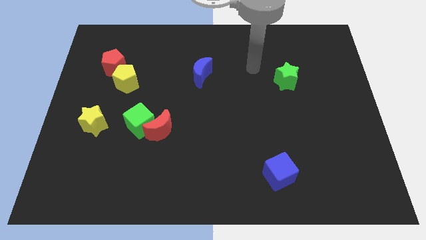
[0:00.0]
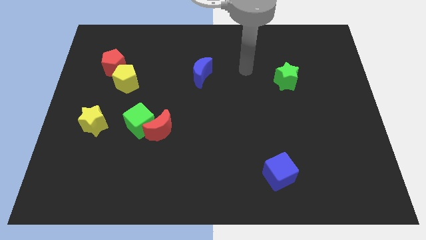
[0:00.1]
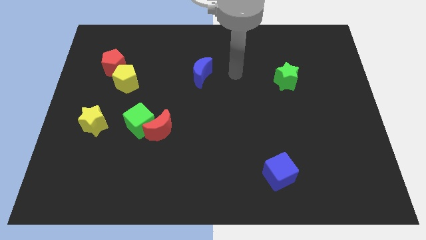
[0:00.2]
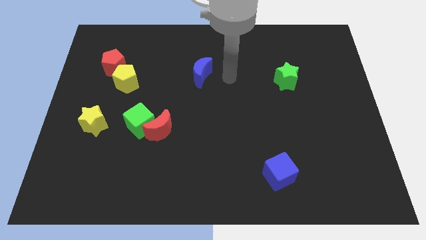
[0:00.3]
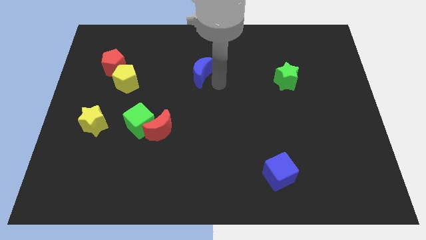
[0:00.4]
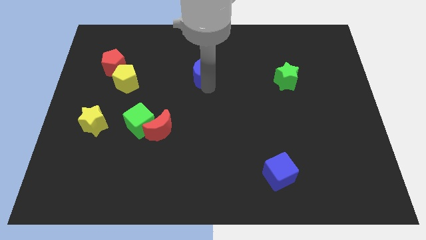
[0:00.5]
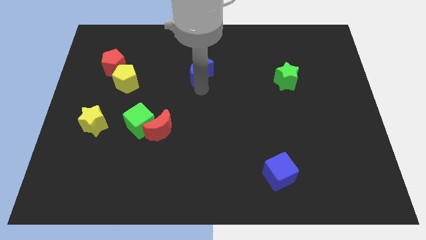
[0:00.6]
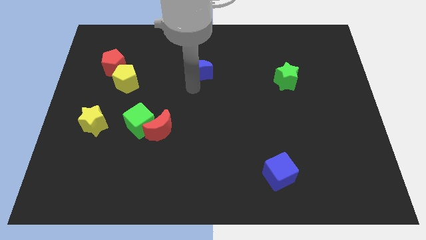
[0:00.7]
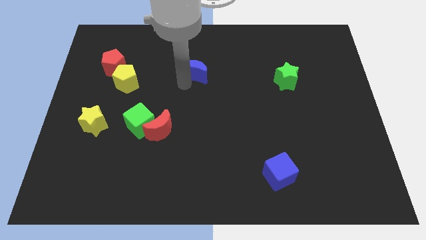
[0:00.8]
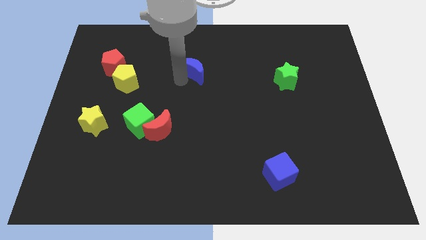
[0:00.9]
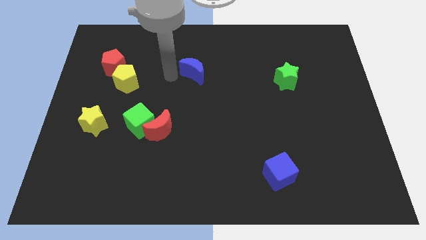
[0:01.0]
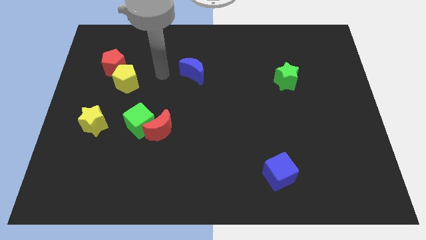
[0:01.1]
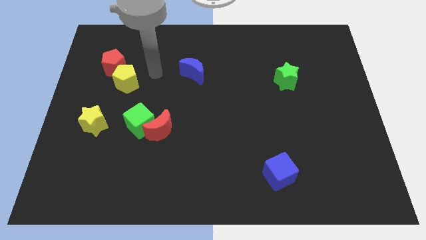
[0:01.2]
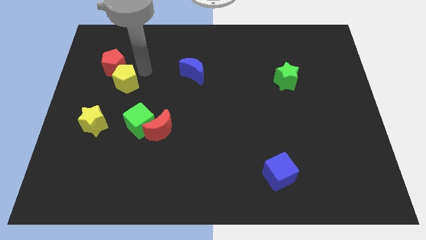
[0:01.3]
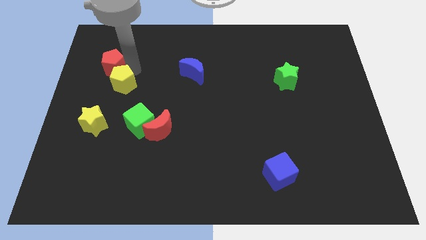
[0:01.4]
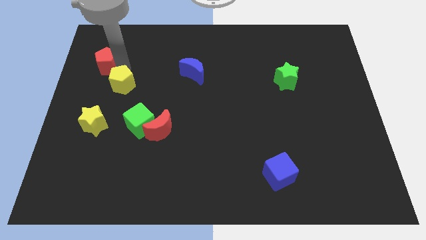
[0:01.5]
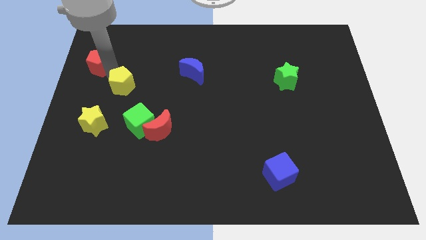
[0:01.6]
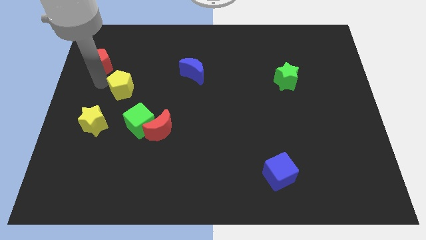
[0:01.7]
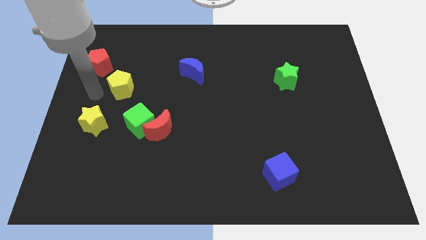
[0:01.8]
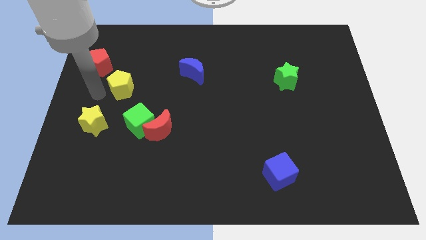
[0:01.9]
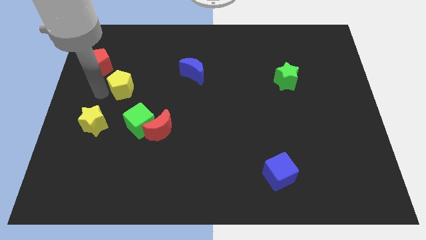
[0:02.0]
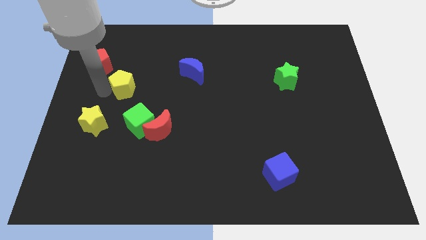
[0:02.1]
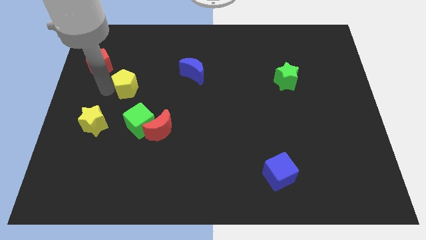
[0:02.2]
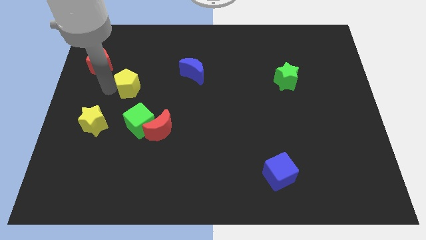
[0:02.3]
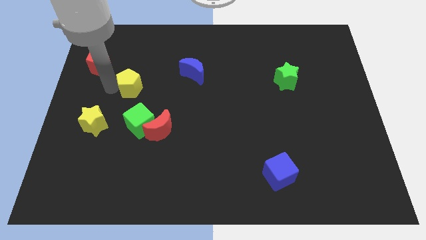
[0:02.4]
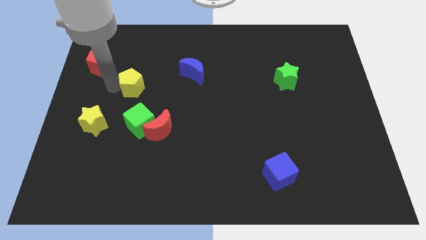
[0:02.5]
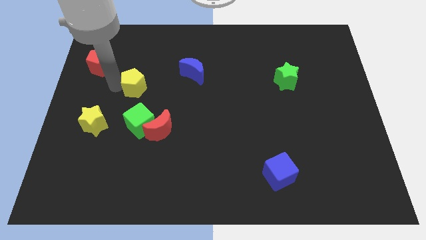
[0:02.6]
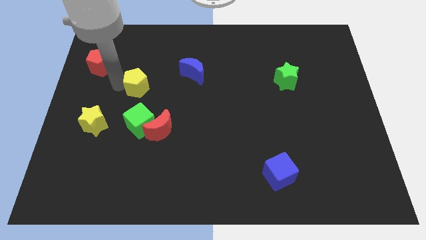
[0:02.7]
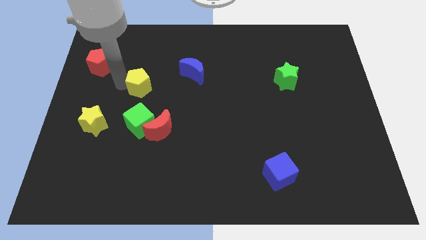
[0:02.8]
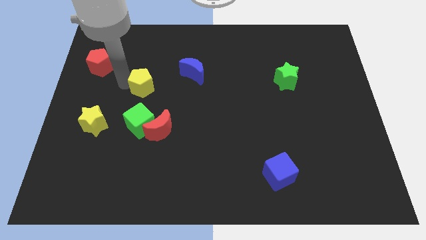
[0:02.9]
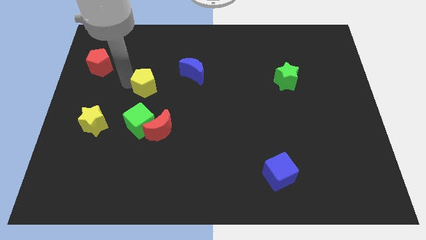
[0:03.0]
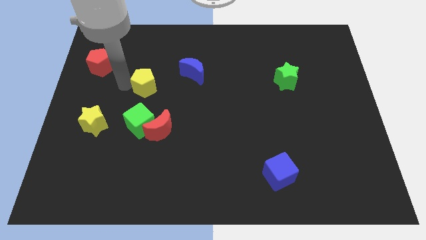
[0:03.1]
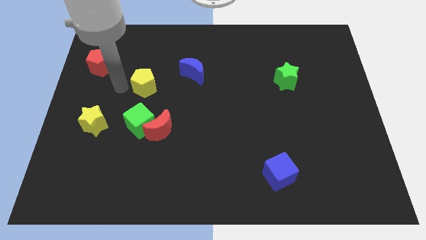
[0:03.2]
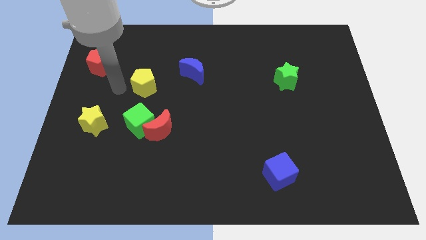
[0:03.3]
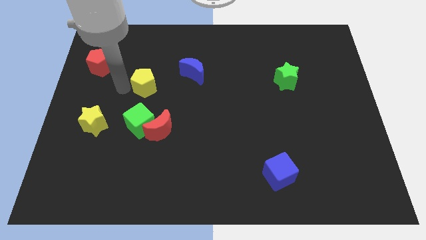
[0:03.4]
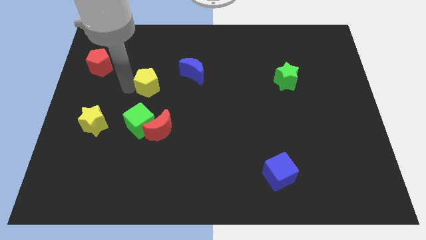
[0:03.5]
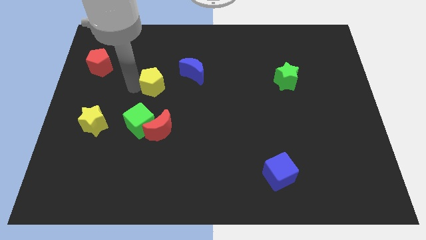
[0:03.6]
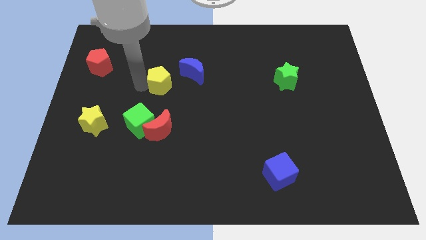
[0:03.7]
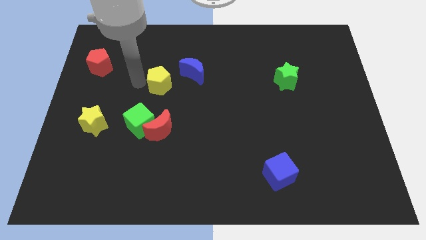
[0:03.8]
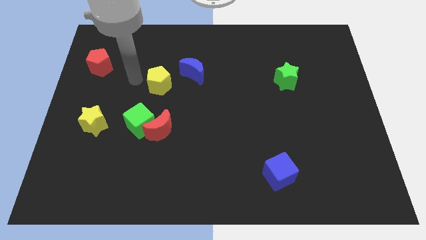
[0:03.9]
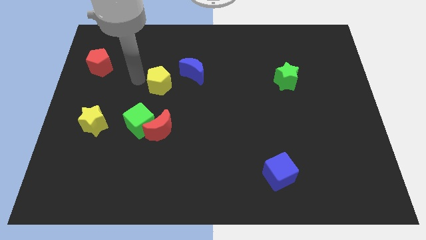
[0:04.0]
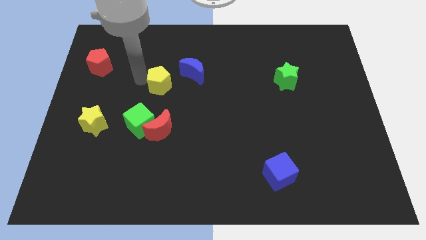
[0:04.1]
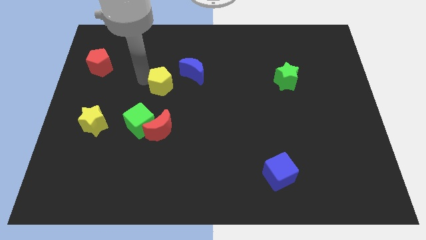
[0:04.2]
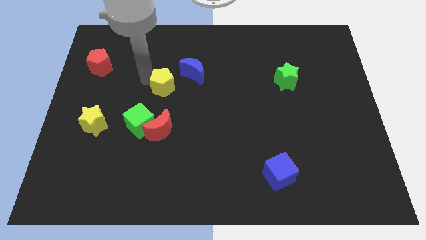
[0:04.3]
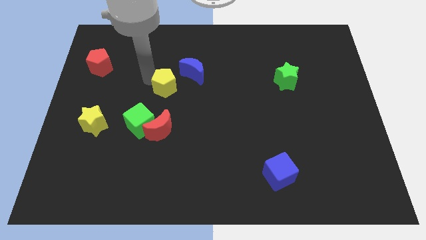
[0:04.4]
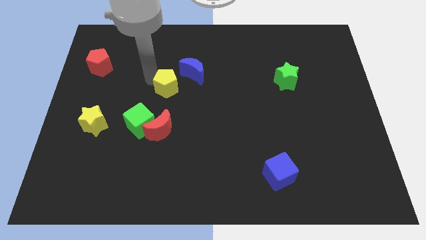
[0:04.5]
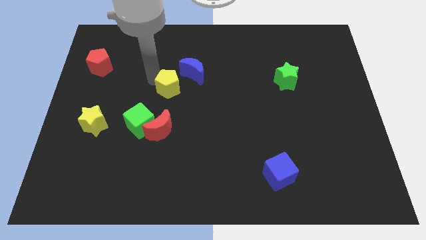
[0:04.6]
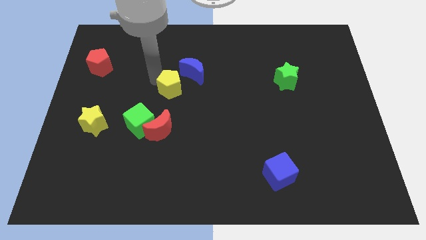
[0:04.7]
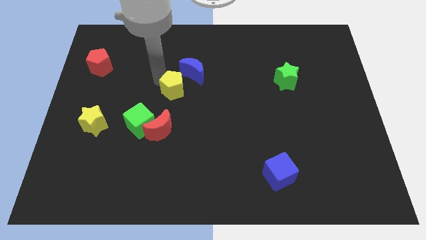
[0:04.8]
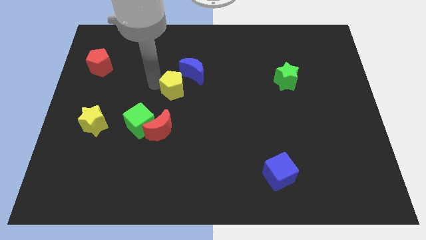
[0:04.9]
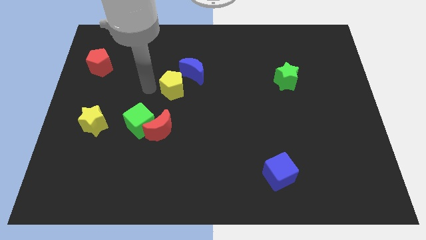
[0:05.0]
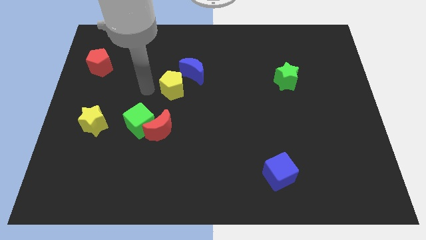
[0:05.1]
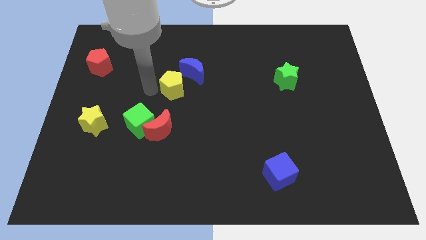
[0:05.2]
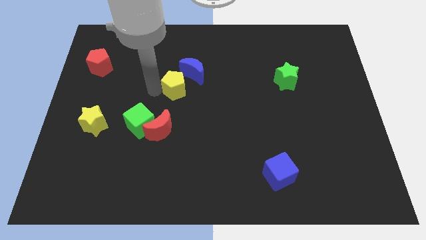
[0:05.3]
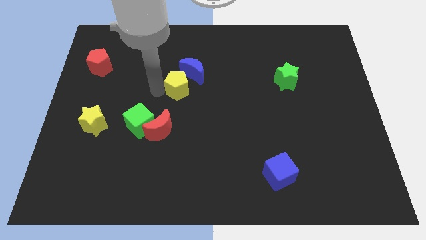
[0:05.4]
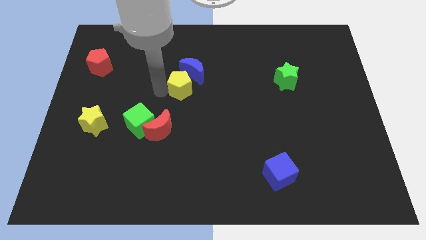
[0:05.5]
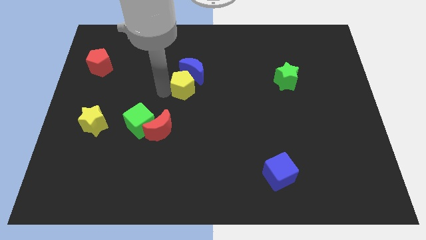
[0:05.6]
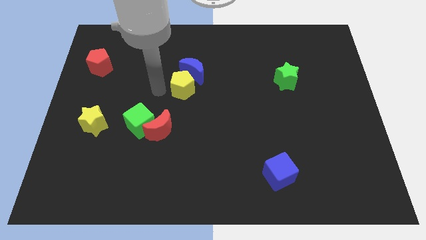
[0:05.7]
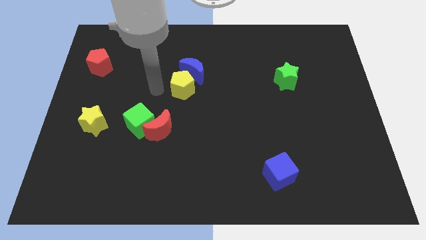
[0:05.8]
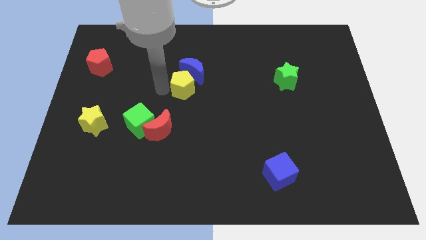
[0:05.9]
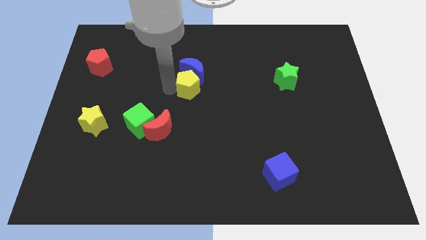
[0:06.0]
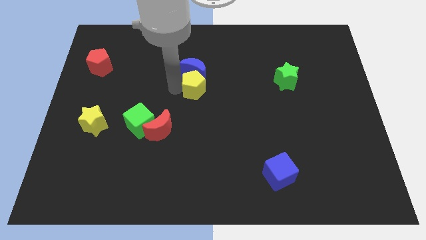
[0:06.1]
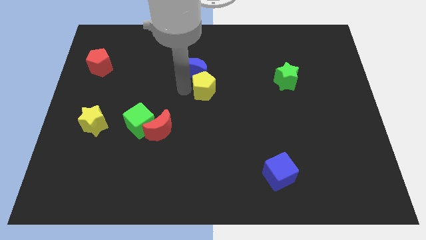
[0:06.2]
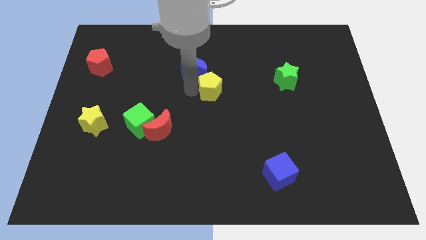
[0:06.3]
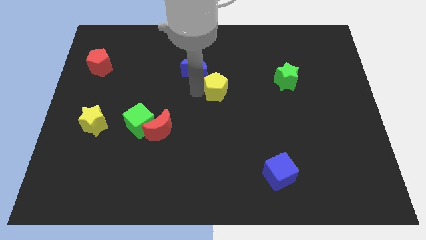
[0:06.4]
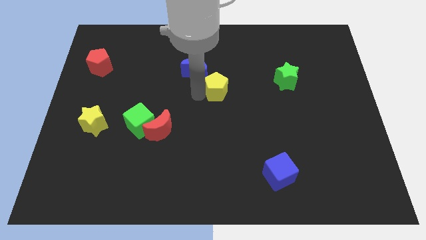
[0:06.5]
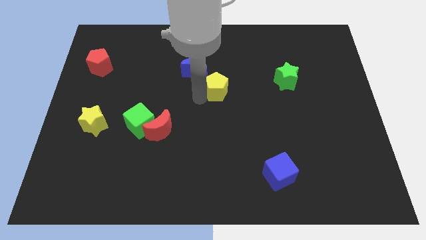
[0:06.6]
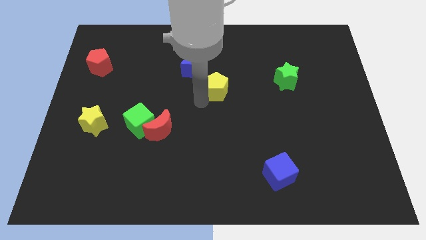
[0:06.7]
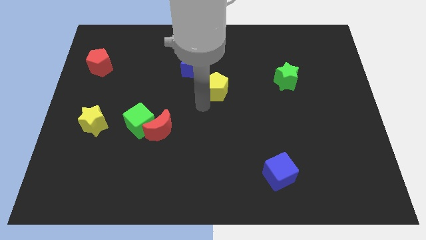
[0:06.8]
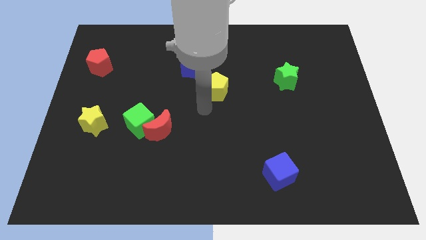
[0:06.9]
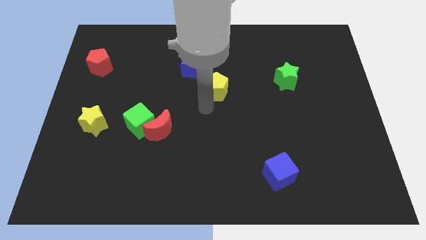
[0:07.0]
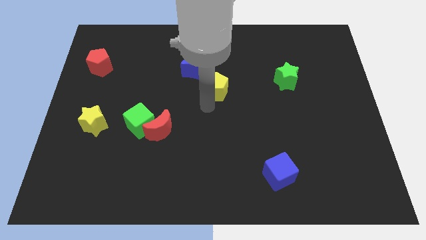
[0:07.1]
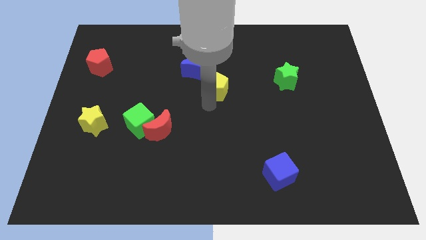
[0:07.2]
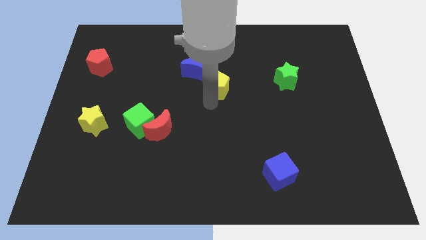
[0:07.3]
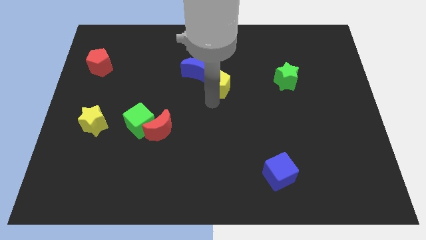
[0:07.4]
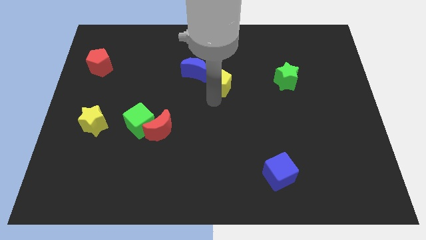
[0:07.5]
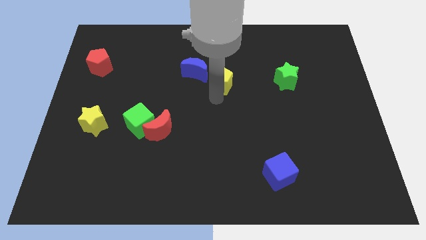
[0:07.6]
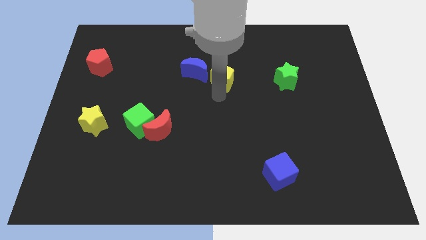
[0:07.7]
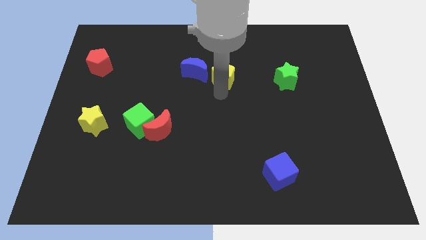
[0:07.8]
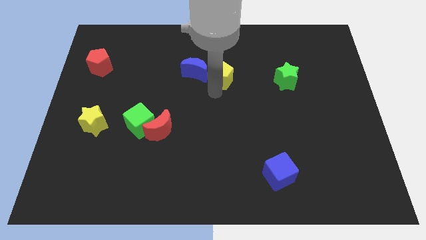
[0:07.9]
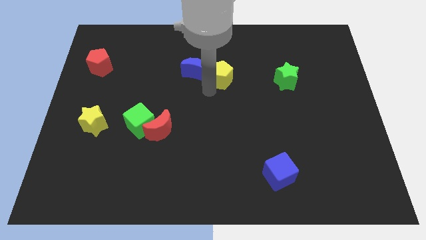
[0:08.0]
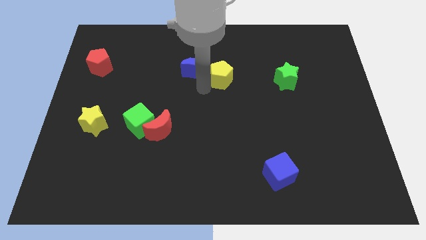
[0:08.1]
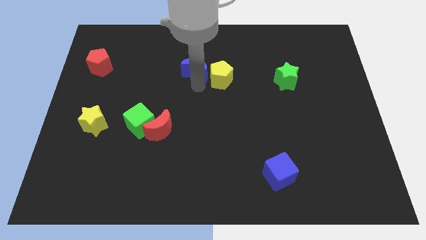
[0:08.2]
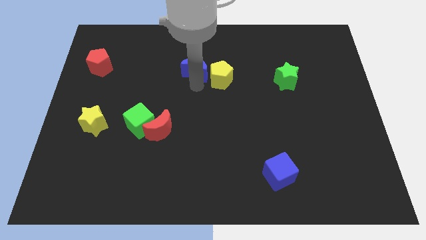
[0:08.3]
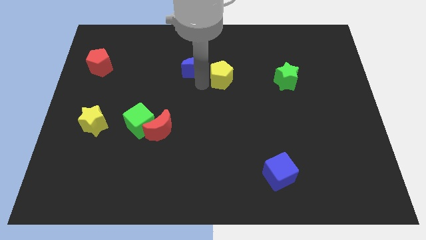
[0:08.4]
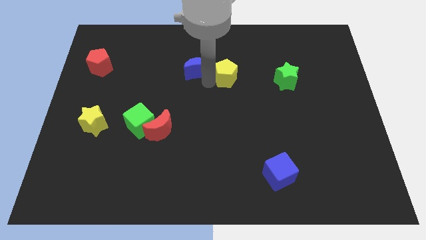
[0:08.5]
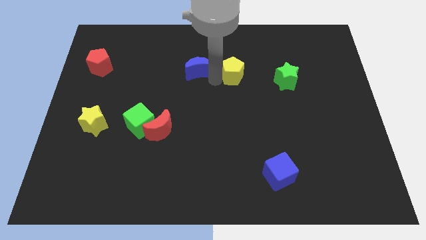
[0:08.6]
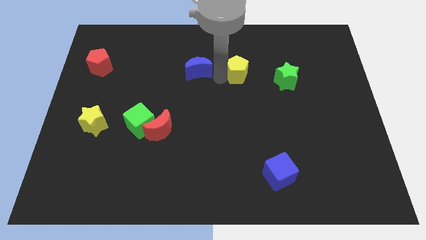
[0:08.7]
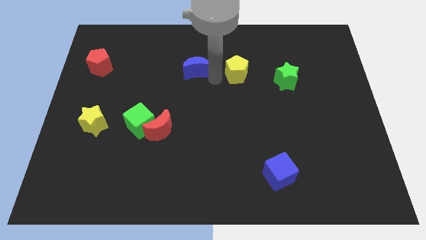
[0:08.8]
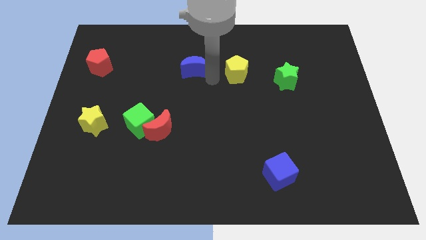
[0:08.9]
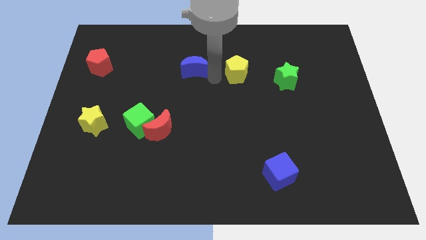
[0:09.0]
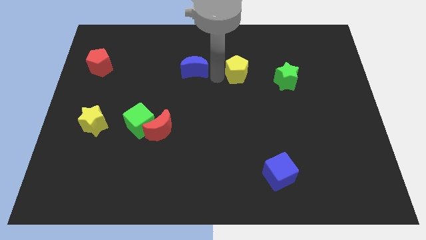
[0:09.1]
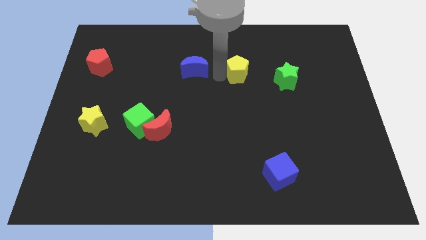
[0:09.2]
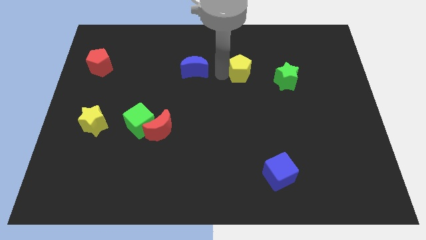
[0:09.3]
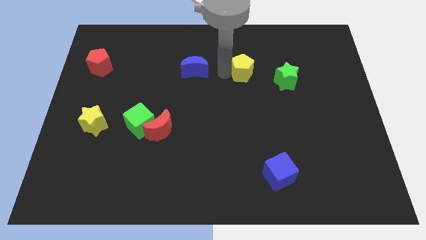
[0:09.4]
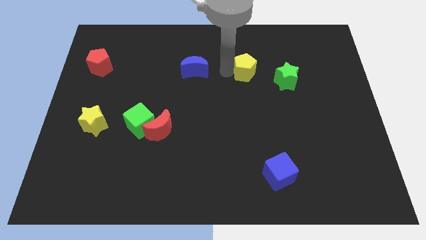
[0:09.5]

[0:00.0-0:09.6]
put the yellow pentagon diagonally up and to the left of the green star
